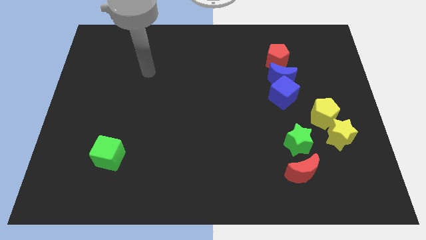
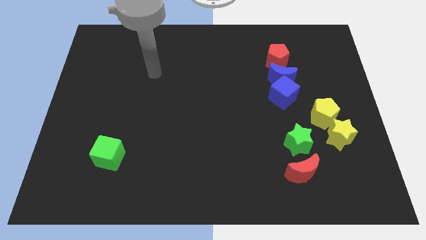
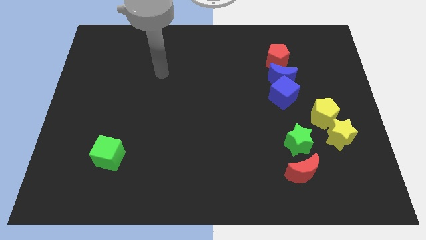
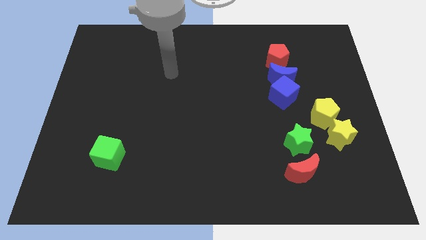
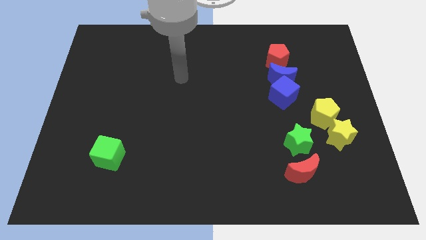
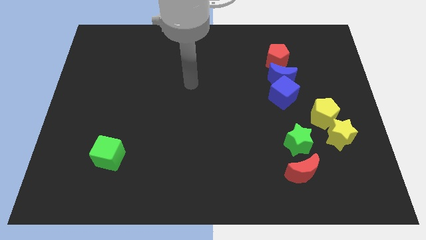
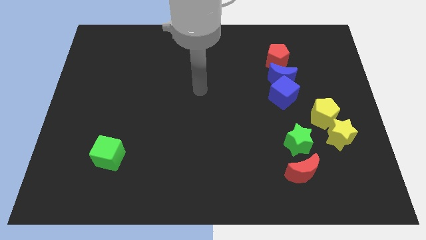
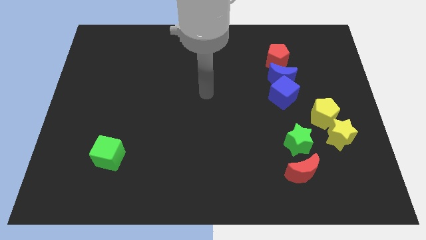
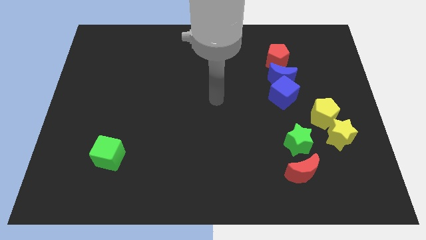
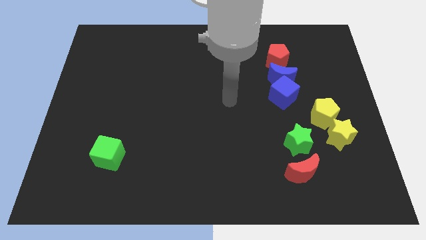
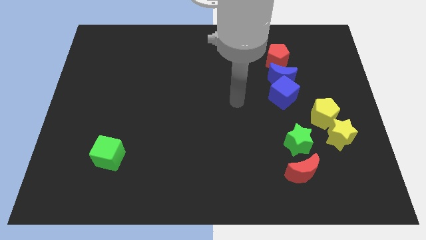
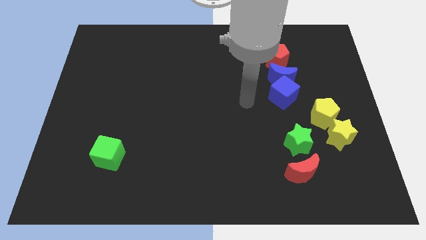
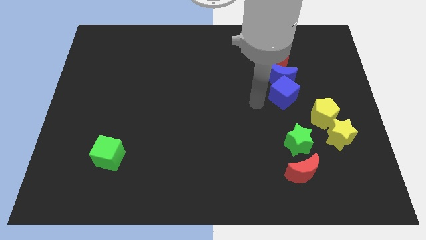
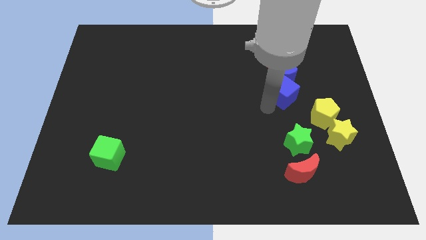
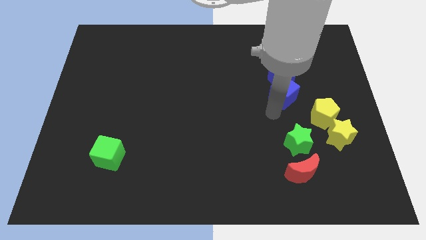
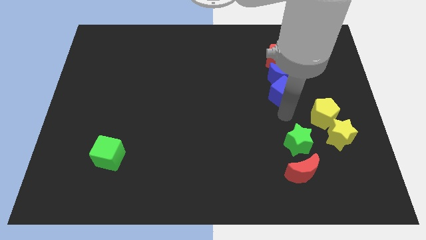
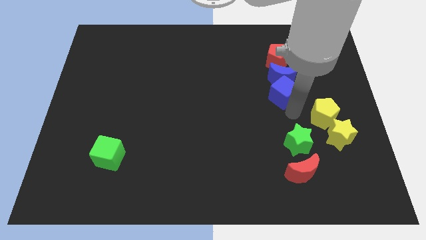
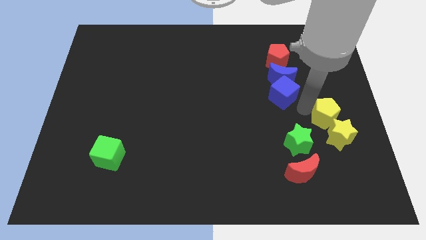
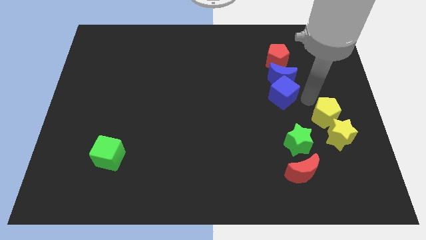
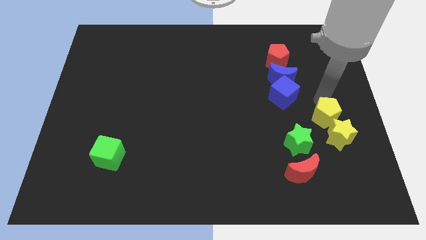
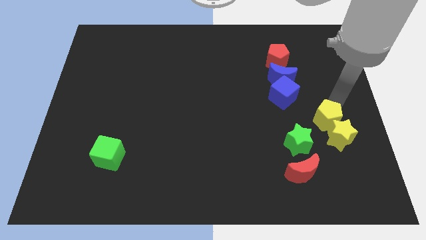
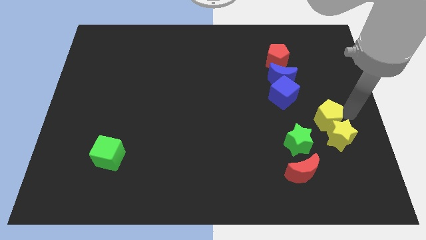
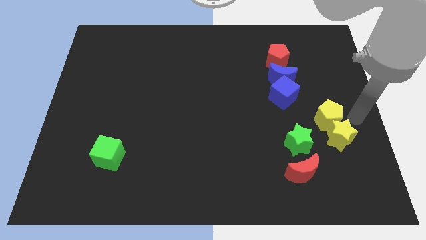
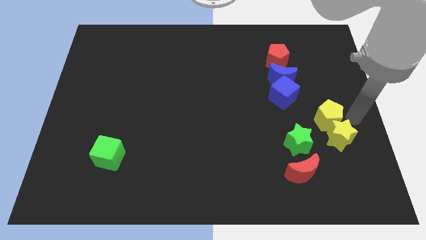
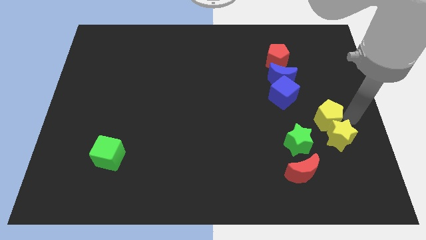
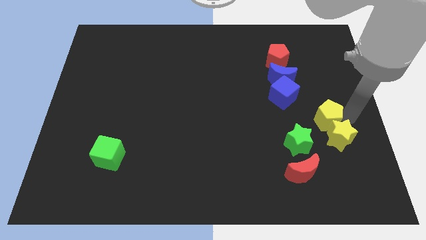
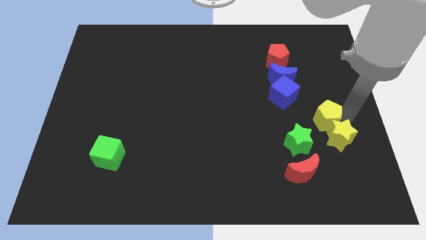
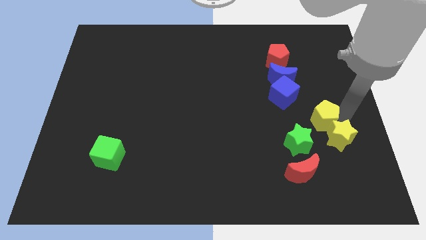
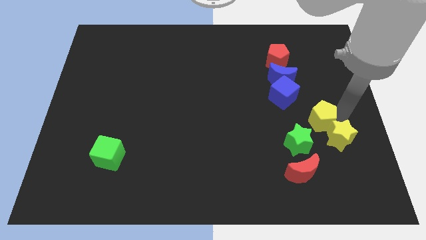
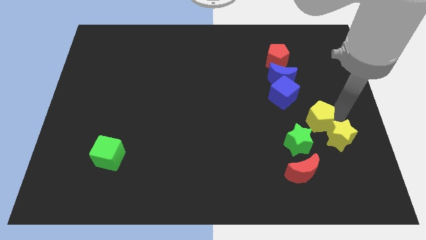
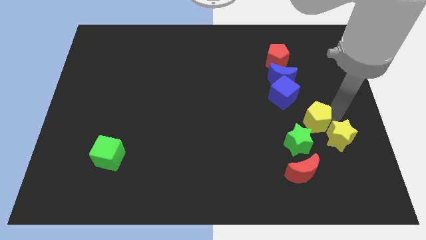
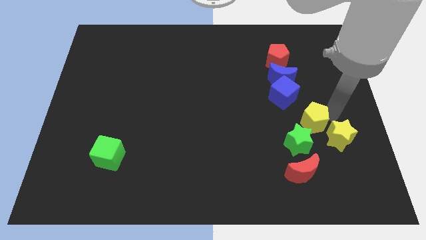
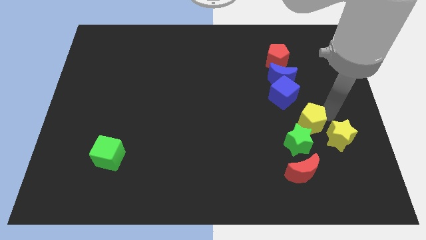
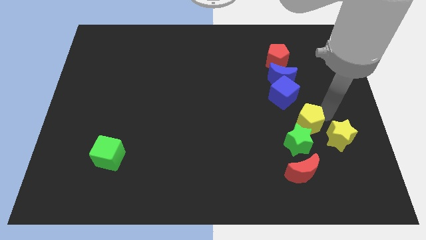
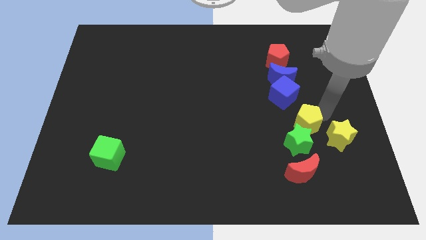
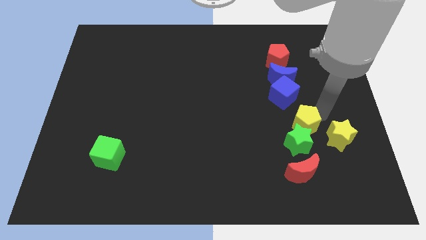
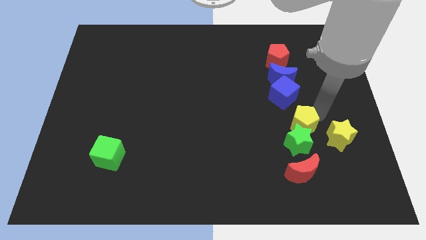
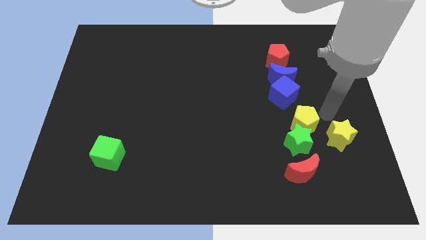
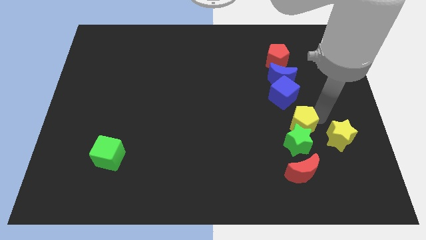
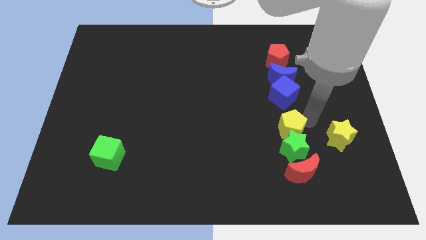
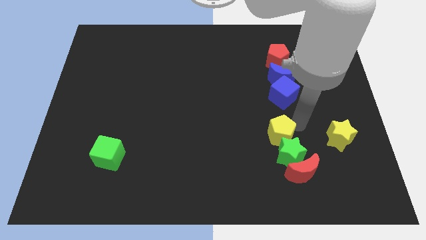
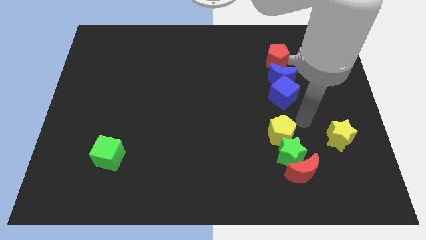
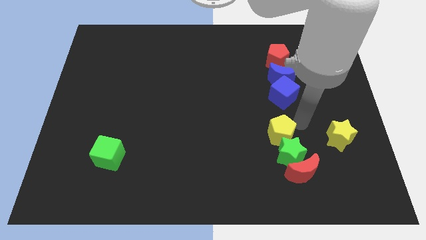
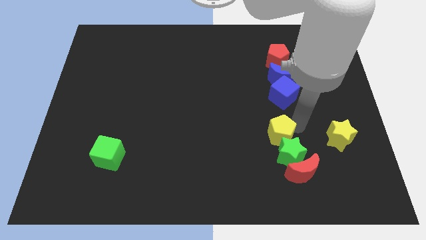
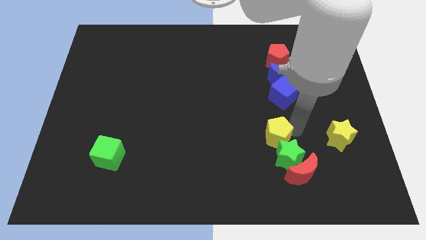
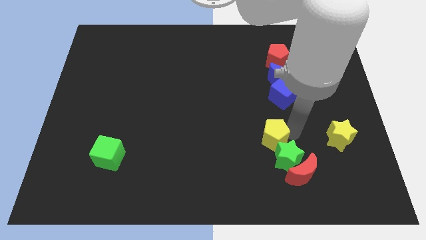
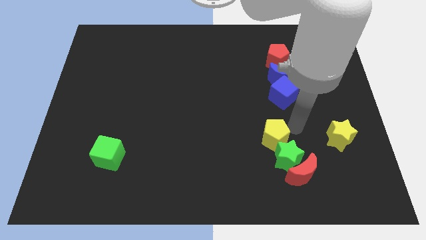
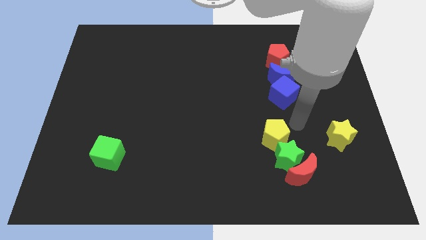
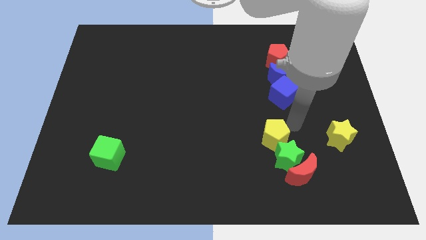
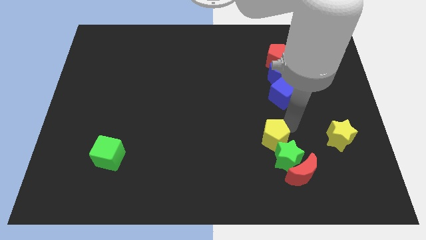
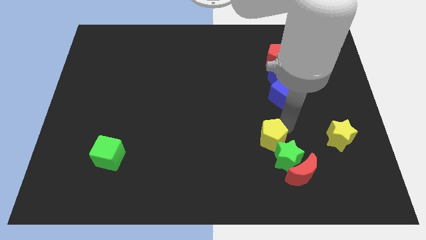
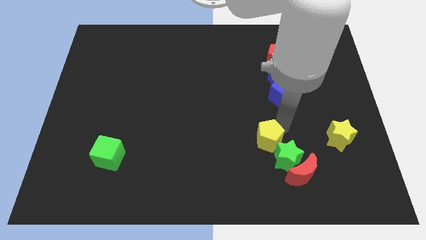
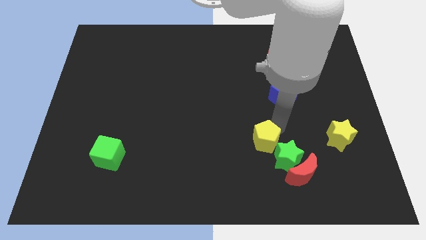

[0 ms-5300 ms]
put the yellow pentagon to the left side of the green star

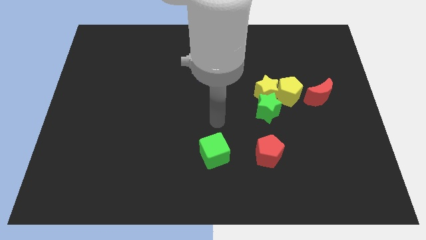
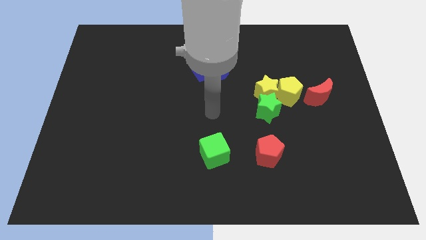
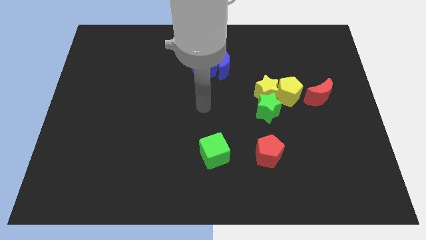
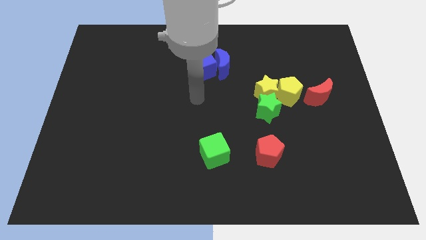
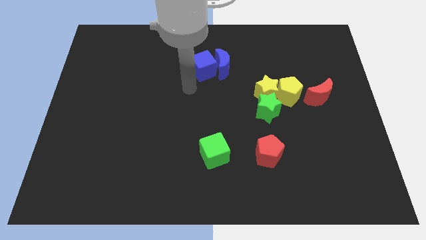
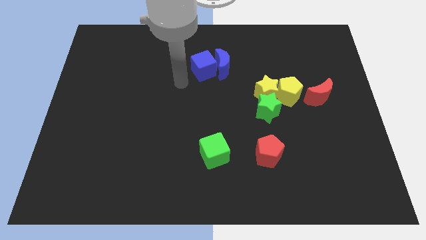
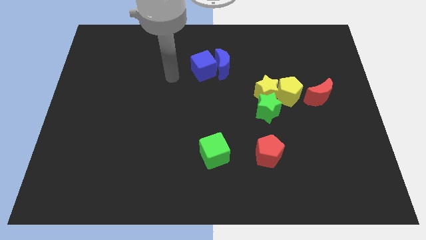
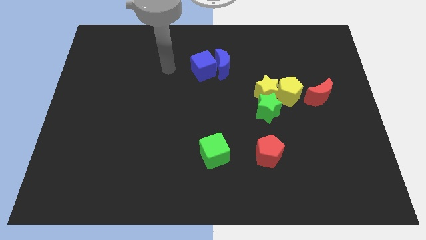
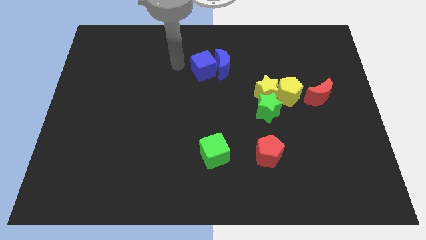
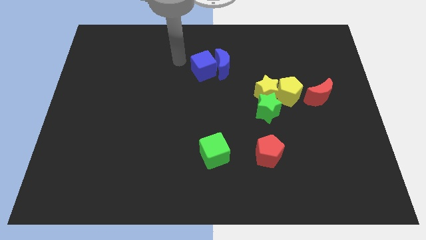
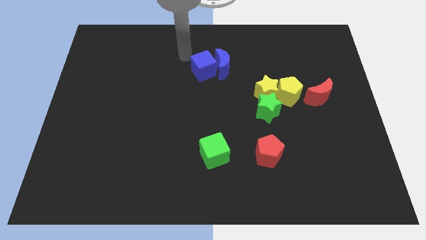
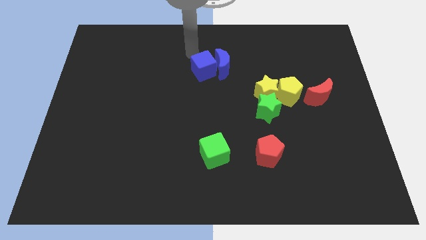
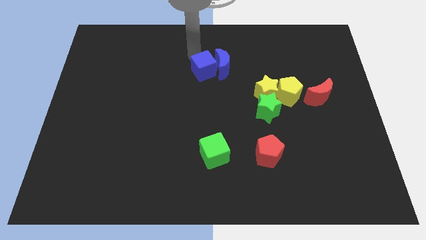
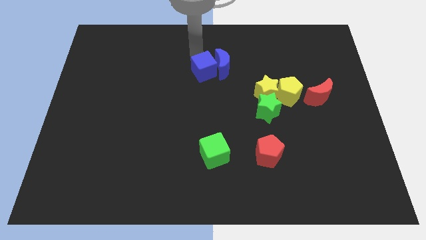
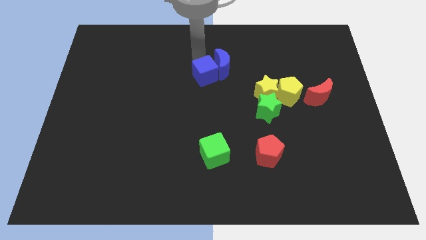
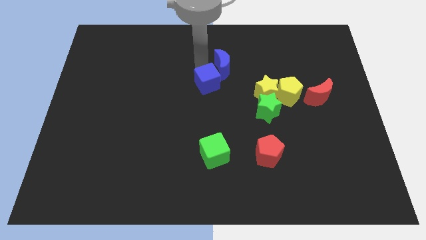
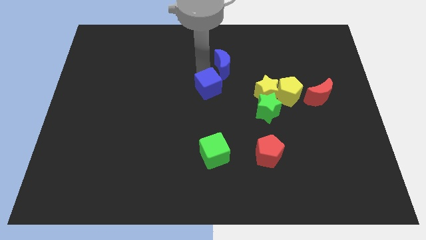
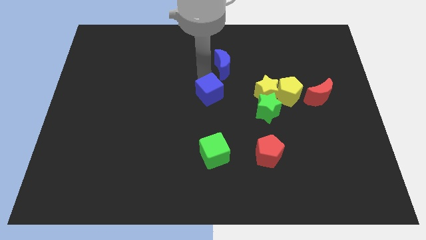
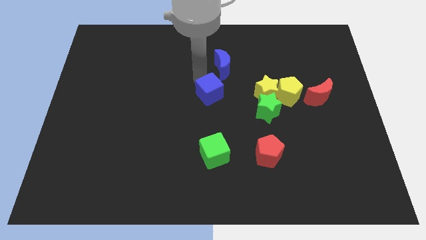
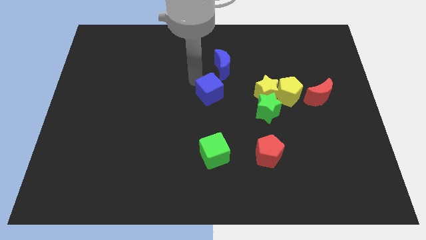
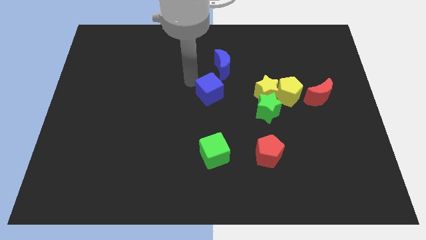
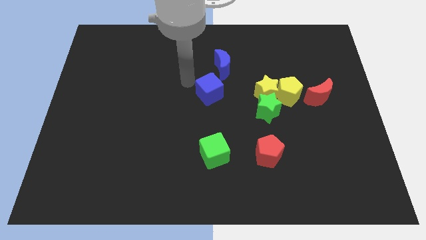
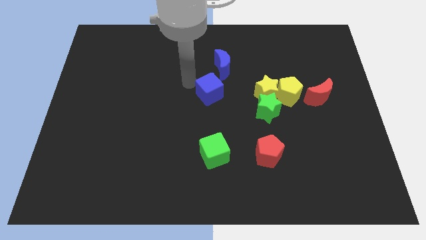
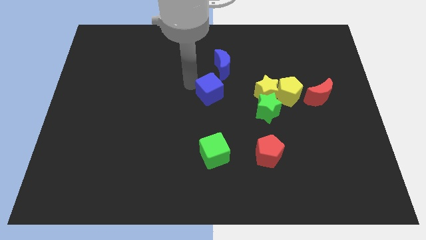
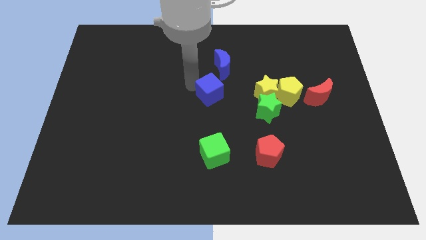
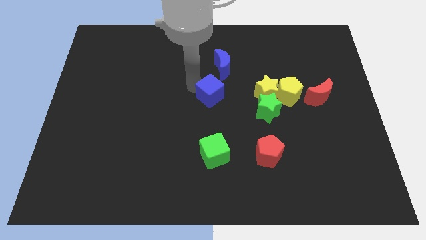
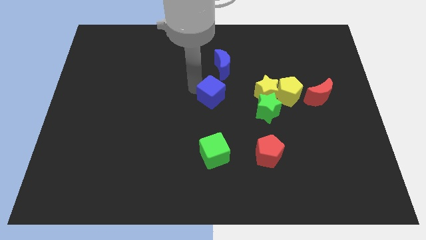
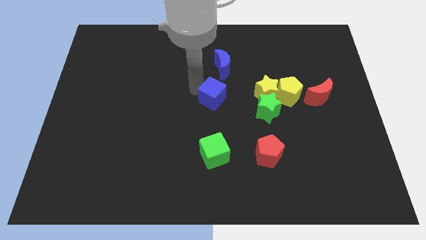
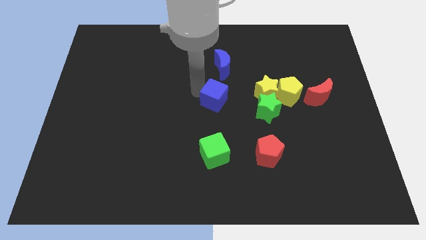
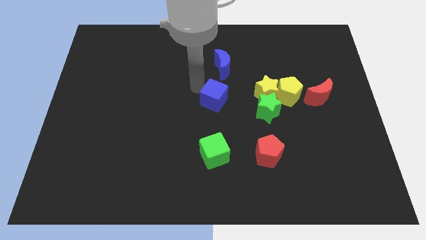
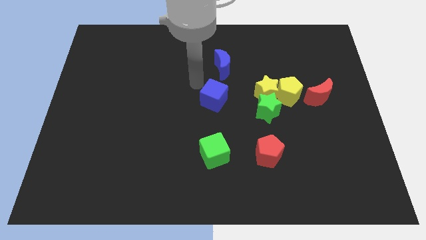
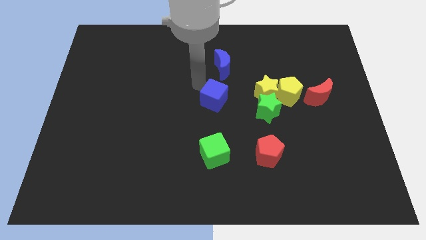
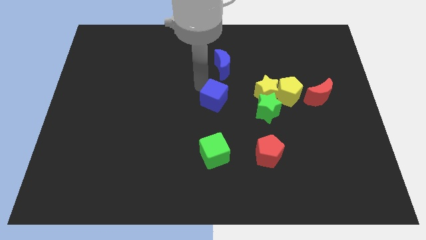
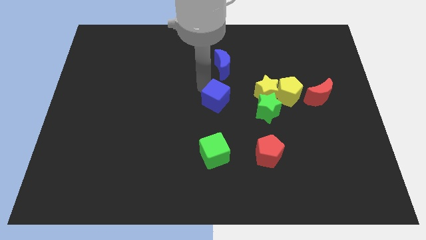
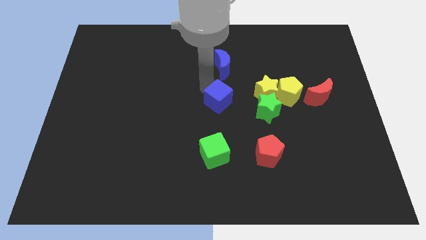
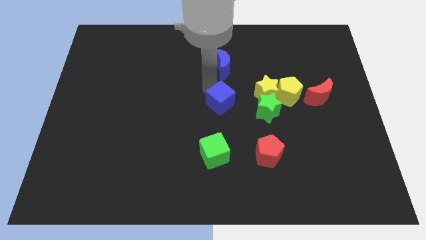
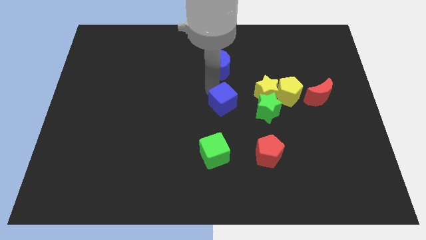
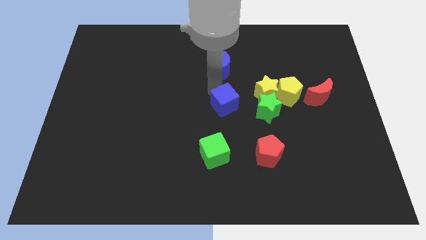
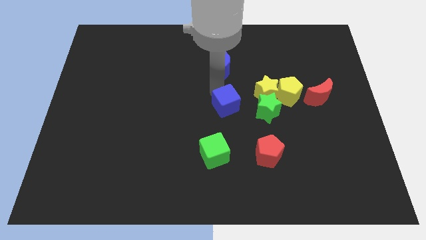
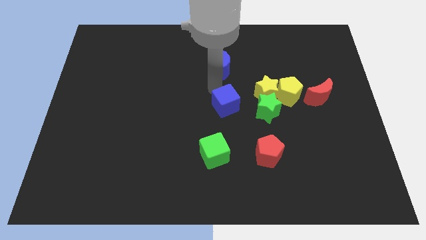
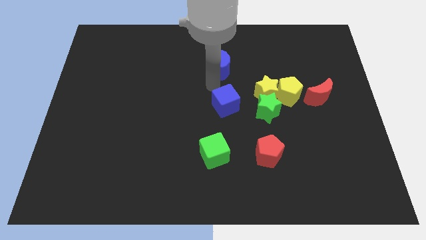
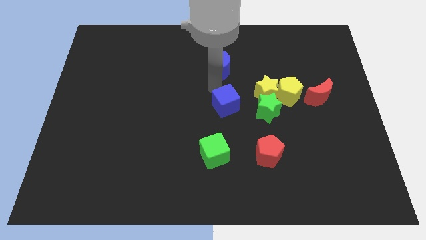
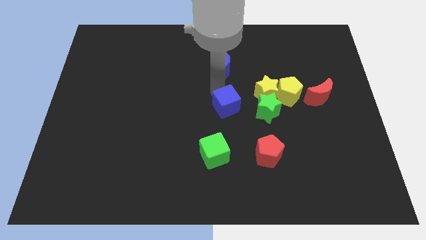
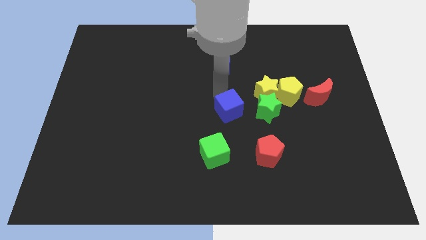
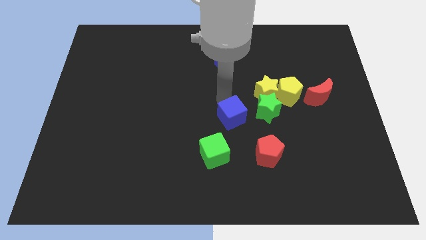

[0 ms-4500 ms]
slide the blue cube to the top left side of the red pentagon
